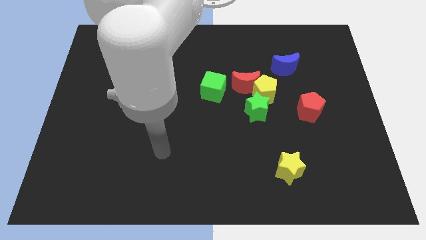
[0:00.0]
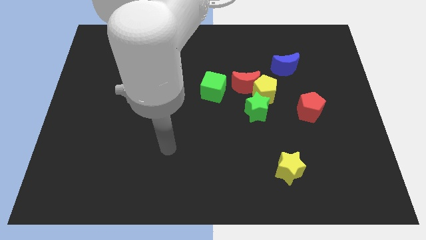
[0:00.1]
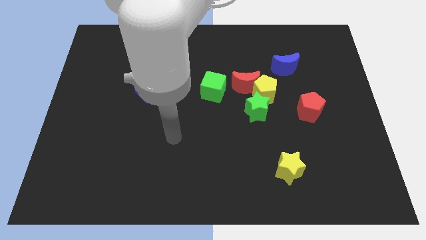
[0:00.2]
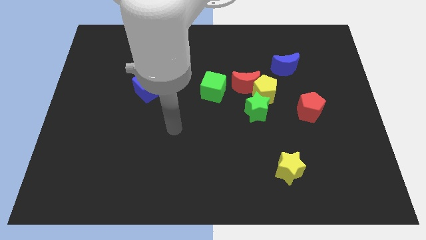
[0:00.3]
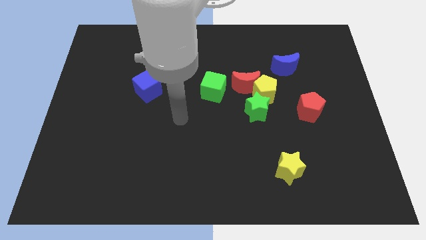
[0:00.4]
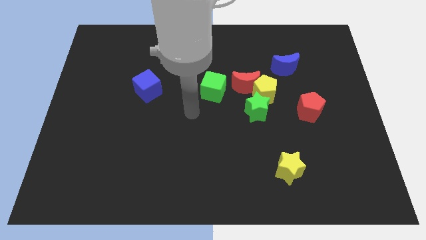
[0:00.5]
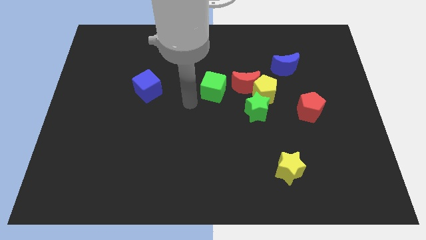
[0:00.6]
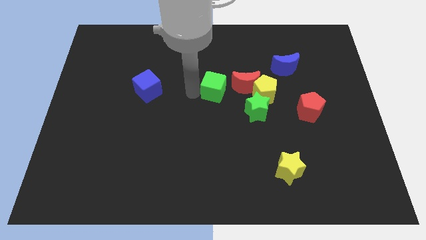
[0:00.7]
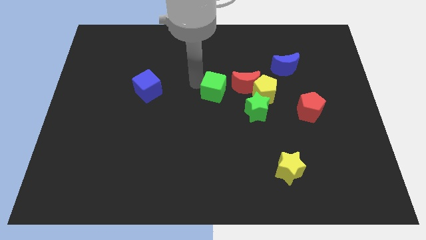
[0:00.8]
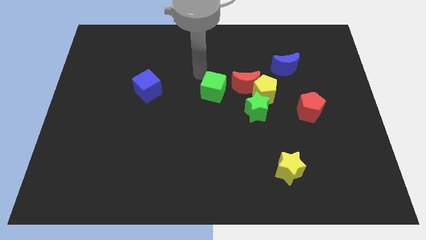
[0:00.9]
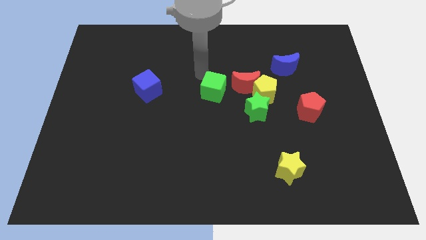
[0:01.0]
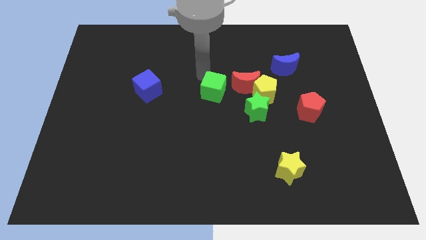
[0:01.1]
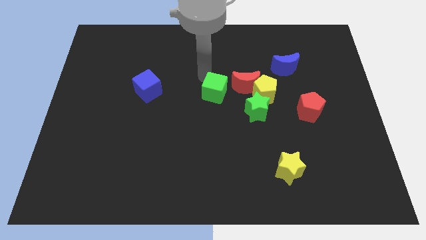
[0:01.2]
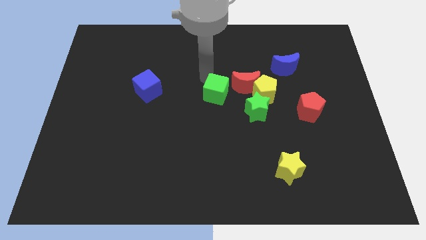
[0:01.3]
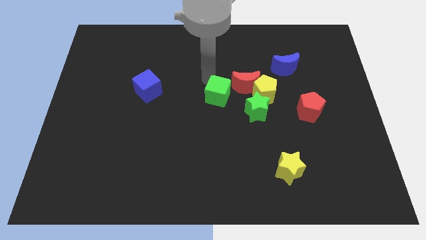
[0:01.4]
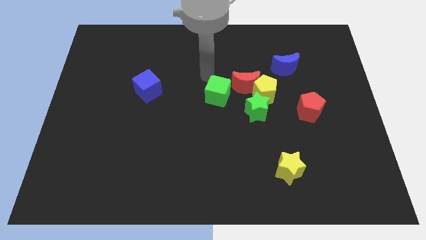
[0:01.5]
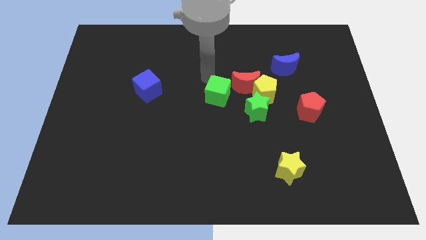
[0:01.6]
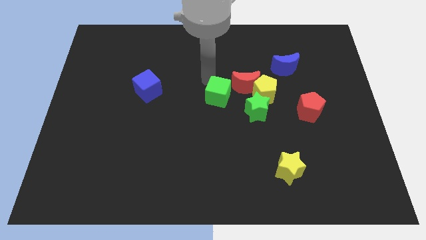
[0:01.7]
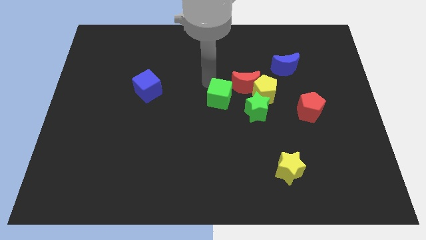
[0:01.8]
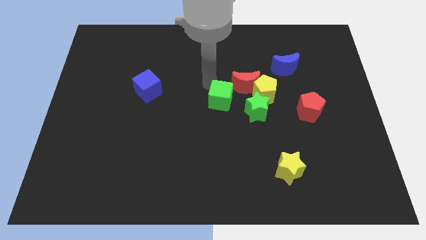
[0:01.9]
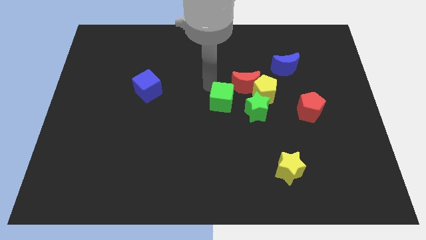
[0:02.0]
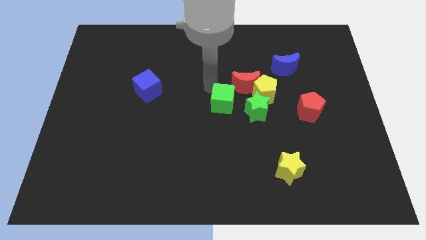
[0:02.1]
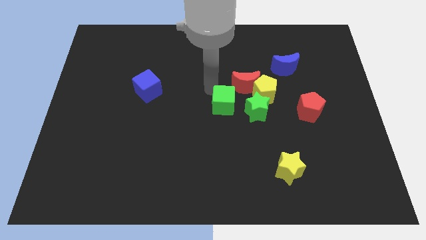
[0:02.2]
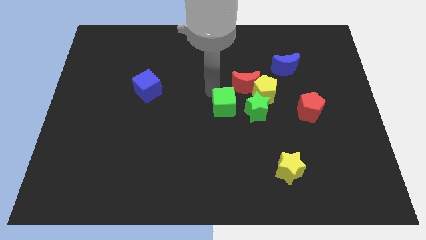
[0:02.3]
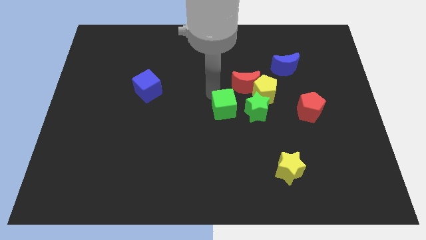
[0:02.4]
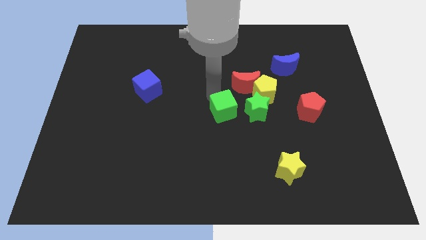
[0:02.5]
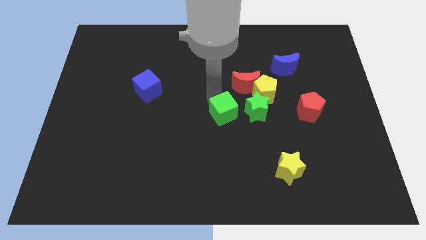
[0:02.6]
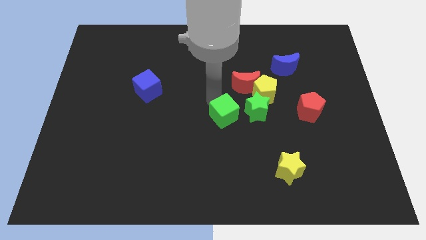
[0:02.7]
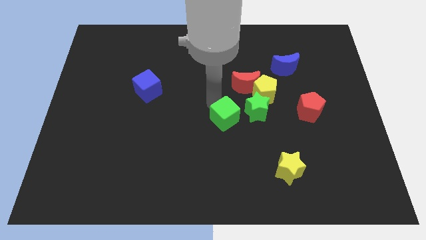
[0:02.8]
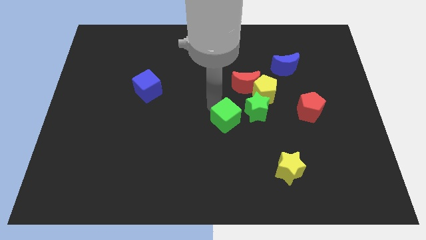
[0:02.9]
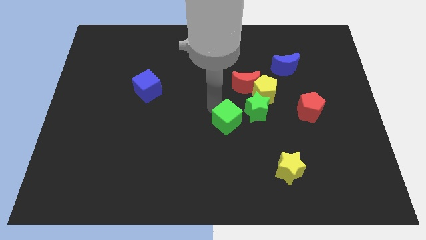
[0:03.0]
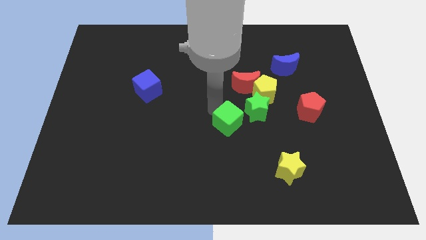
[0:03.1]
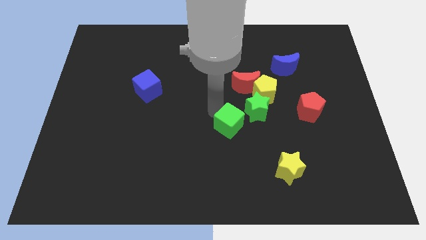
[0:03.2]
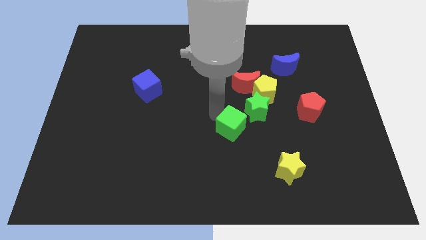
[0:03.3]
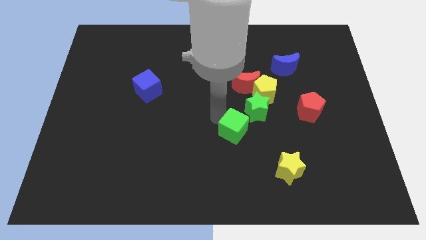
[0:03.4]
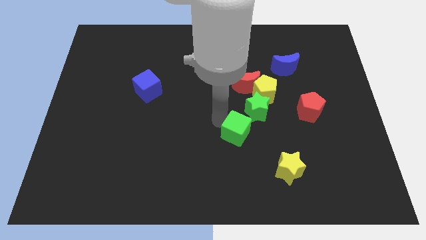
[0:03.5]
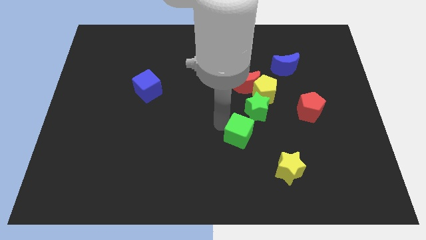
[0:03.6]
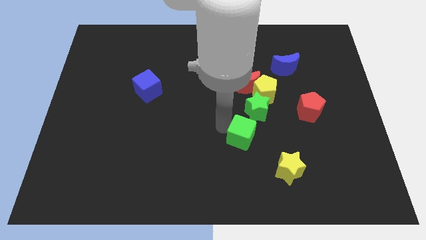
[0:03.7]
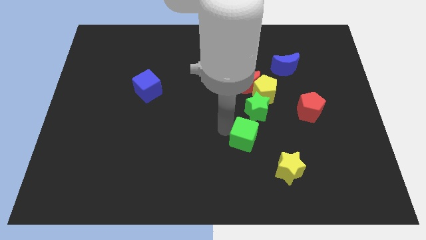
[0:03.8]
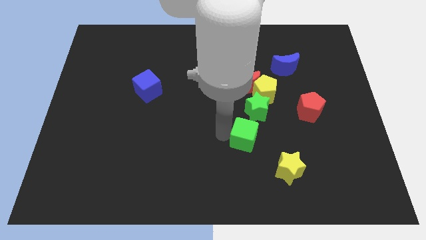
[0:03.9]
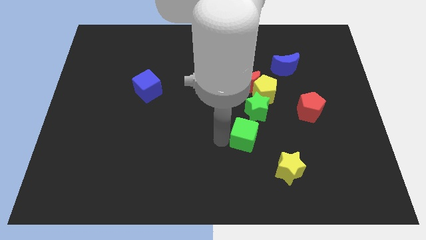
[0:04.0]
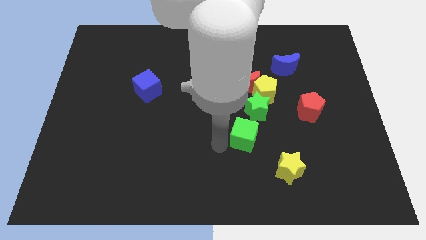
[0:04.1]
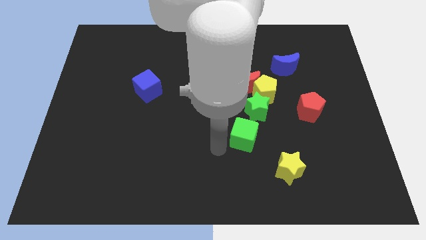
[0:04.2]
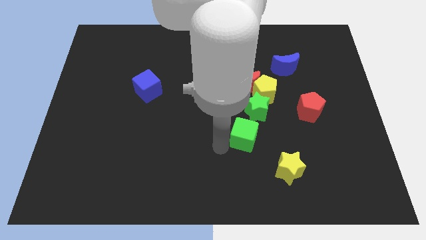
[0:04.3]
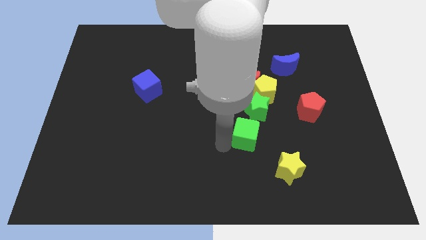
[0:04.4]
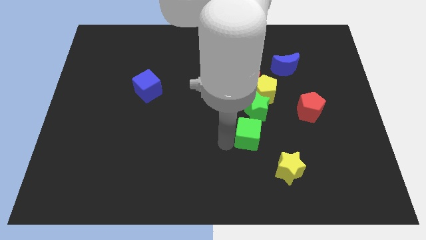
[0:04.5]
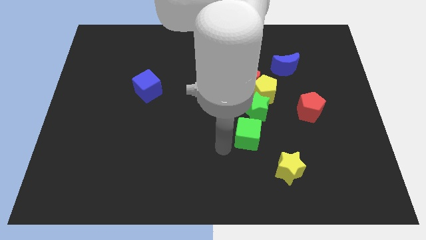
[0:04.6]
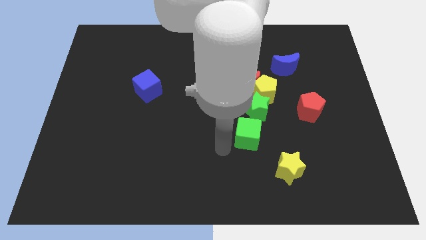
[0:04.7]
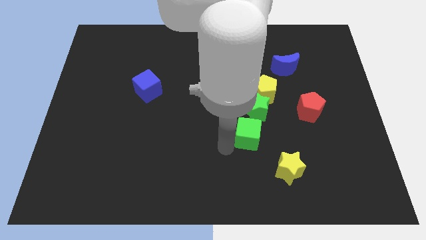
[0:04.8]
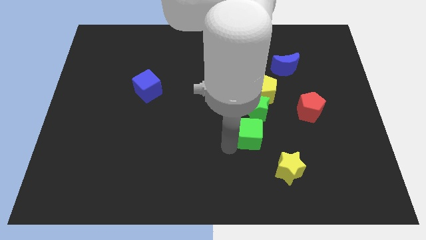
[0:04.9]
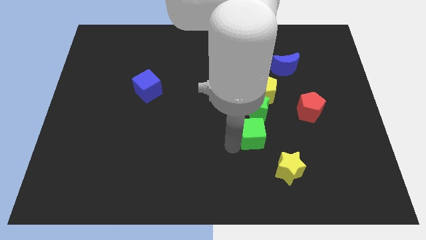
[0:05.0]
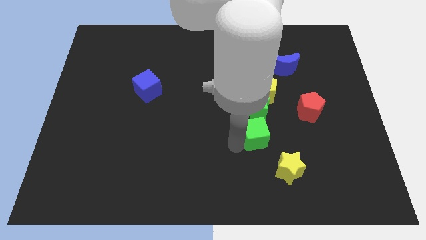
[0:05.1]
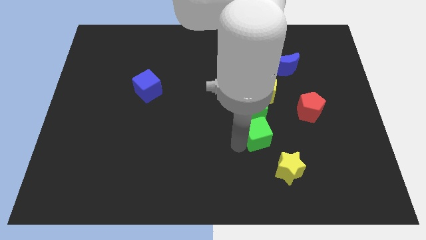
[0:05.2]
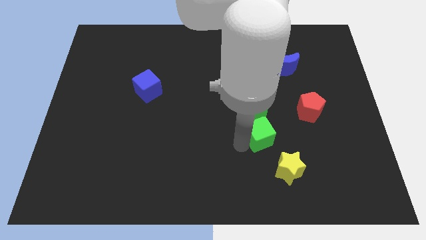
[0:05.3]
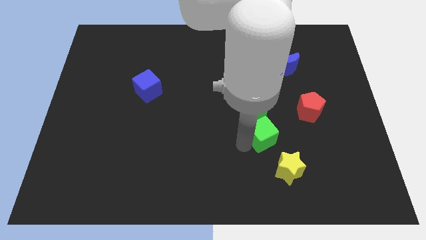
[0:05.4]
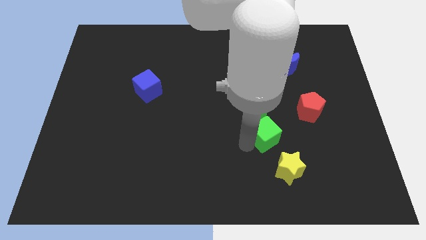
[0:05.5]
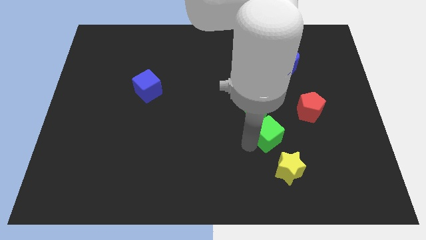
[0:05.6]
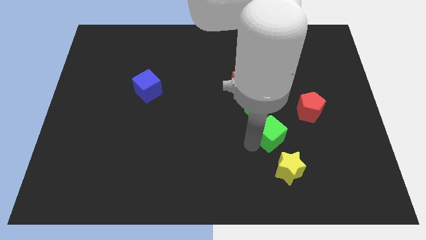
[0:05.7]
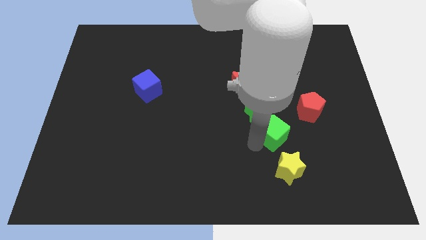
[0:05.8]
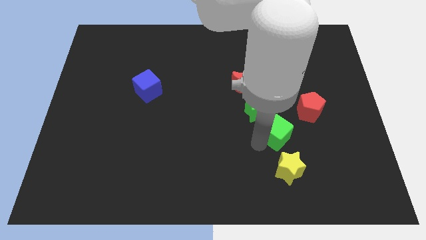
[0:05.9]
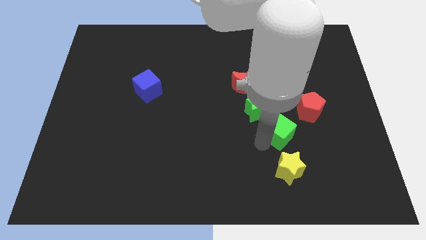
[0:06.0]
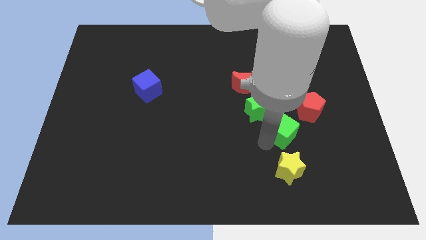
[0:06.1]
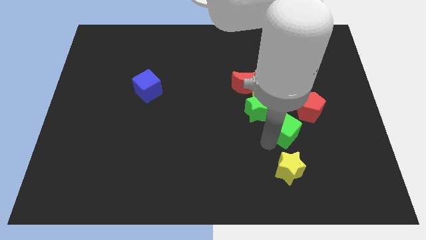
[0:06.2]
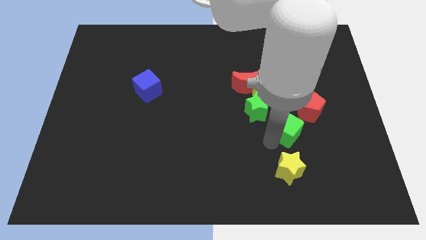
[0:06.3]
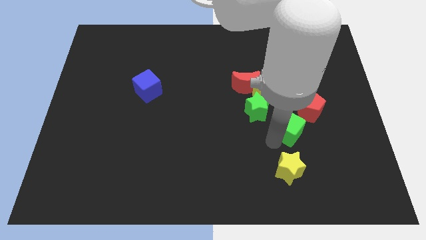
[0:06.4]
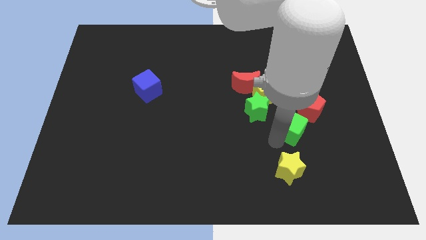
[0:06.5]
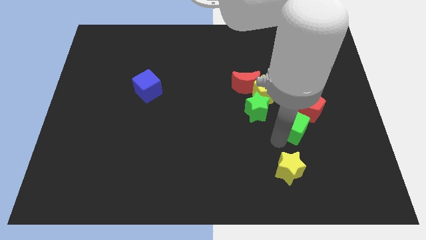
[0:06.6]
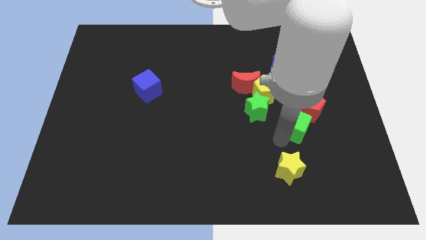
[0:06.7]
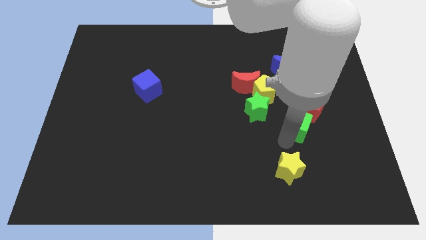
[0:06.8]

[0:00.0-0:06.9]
move the green cube close to the red pentagon

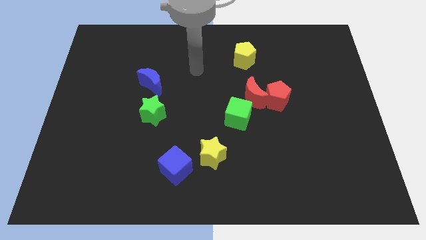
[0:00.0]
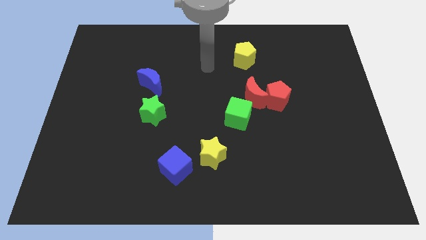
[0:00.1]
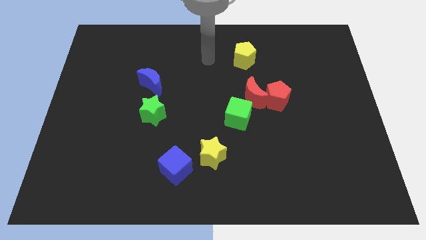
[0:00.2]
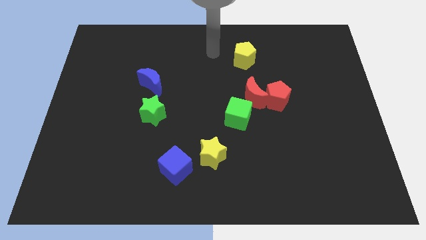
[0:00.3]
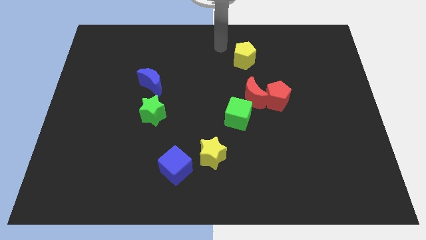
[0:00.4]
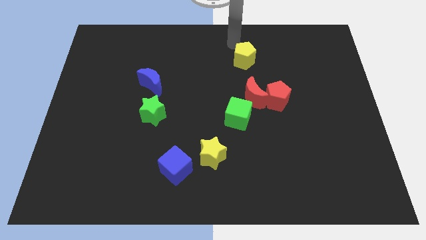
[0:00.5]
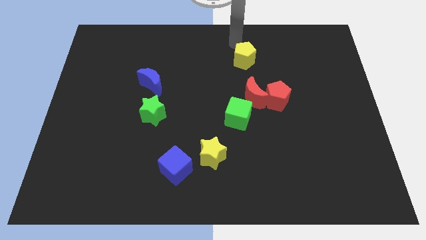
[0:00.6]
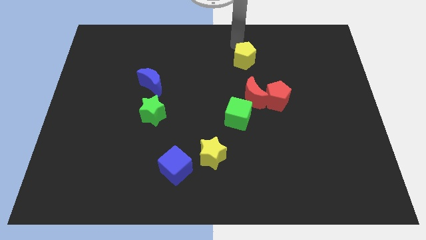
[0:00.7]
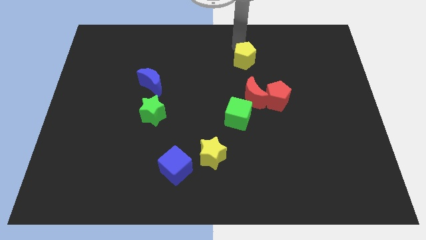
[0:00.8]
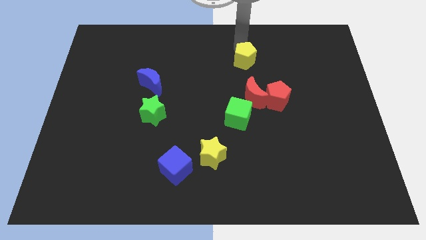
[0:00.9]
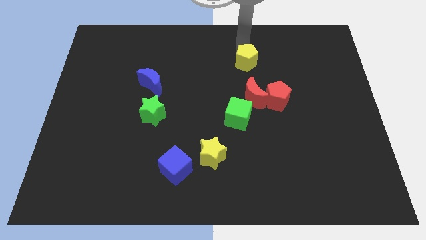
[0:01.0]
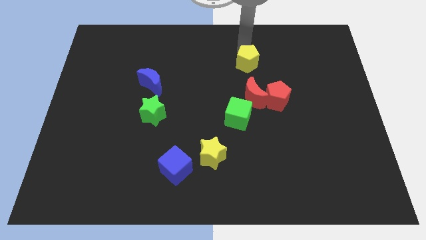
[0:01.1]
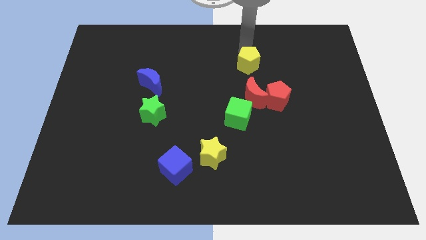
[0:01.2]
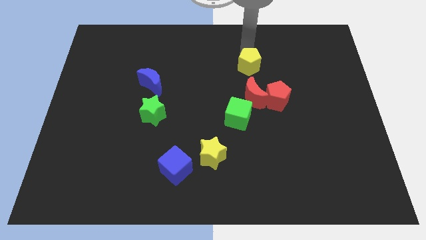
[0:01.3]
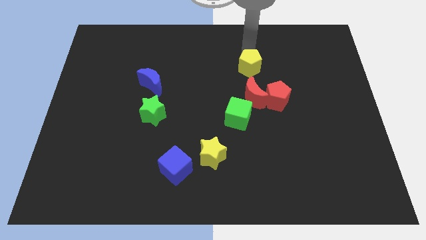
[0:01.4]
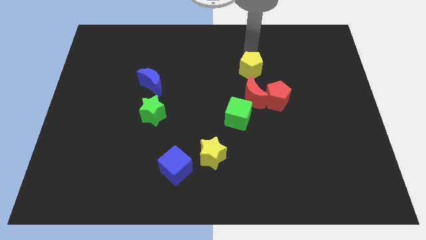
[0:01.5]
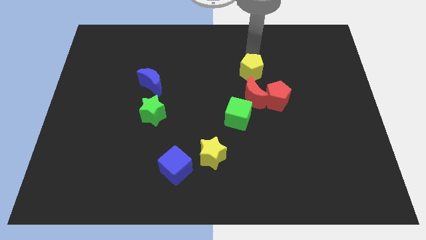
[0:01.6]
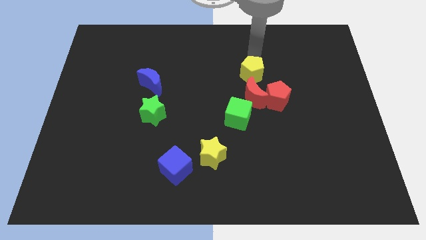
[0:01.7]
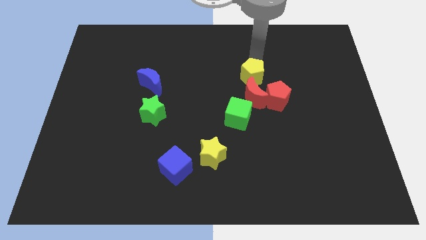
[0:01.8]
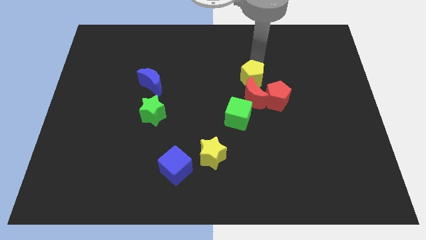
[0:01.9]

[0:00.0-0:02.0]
put the yellow pentagon next to the red moon
